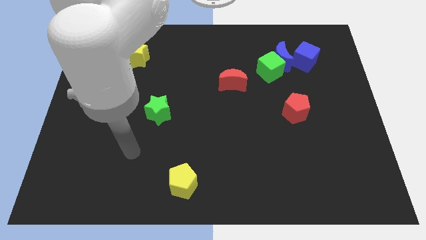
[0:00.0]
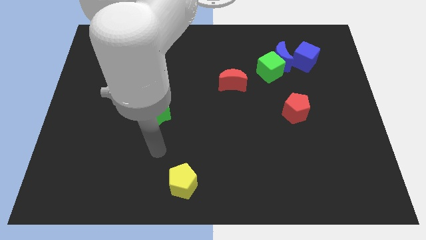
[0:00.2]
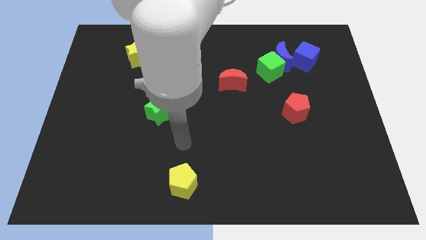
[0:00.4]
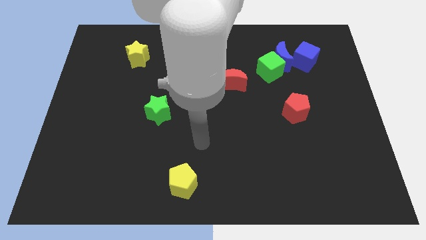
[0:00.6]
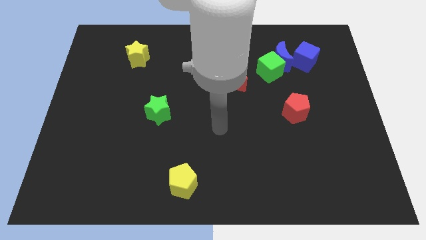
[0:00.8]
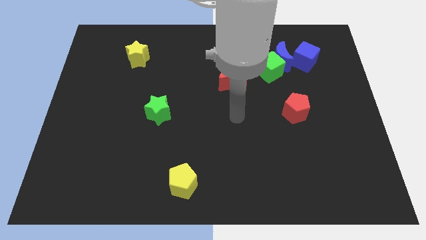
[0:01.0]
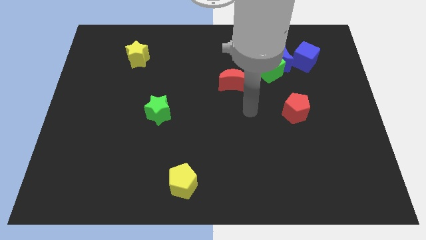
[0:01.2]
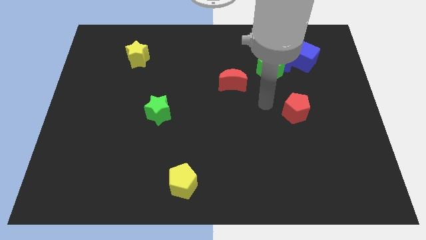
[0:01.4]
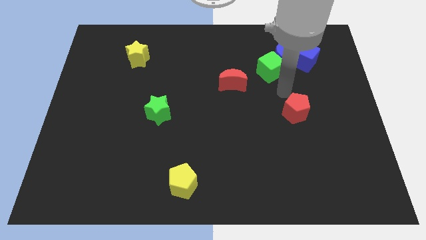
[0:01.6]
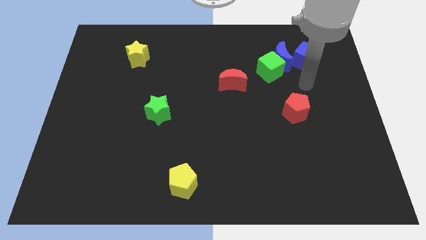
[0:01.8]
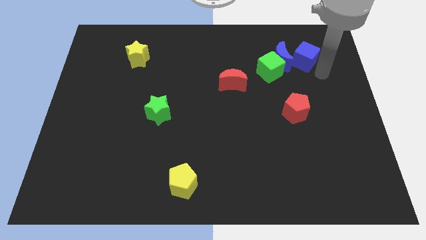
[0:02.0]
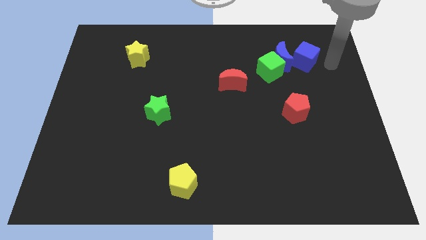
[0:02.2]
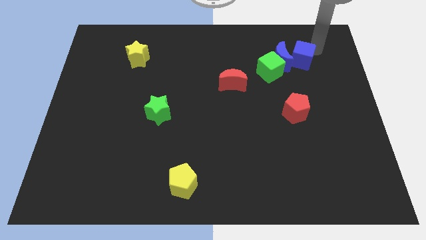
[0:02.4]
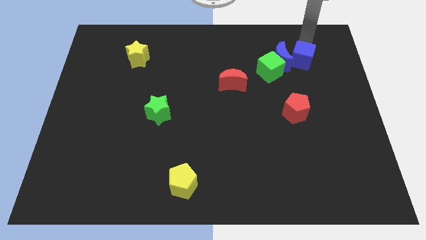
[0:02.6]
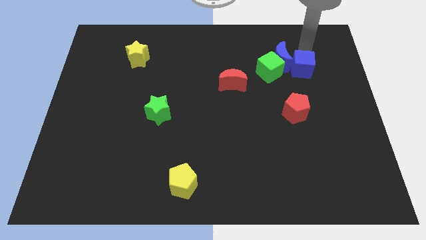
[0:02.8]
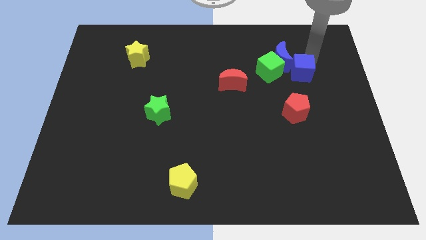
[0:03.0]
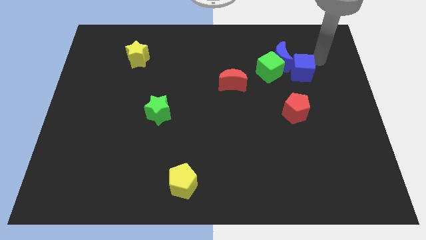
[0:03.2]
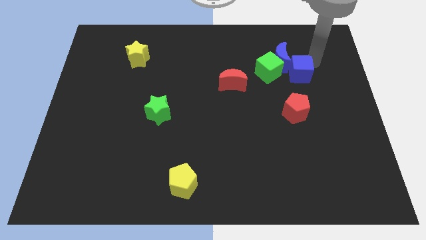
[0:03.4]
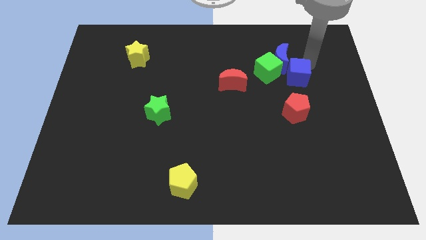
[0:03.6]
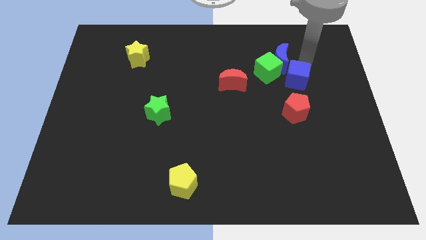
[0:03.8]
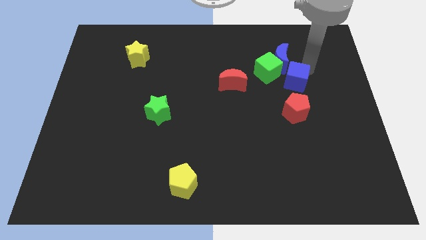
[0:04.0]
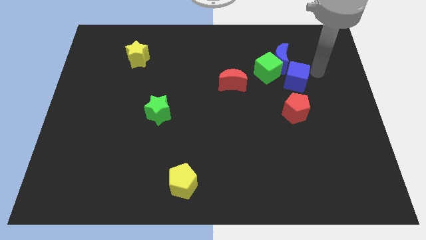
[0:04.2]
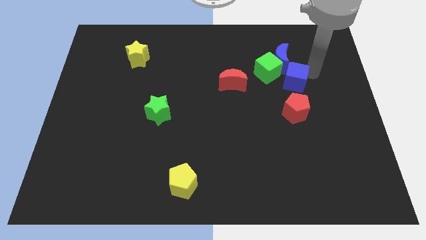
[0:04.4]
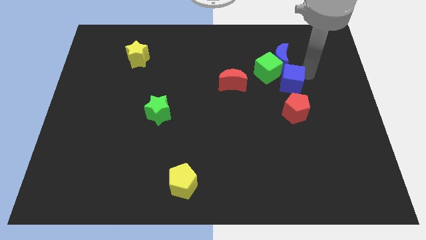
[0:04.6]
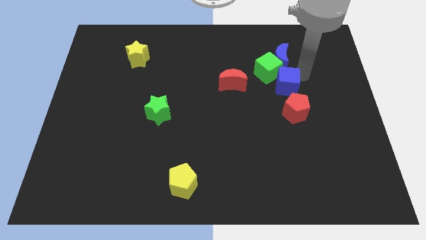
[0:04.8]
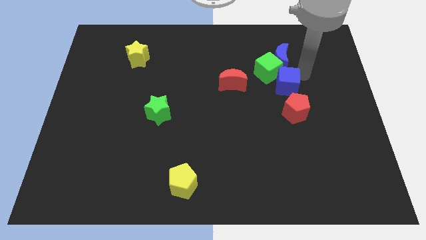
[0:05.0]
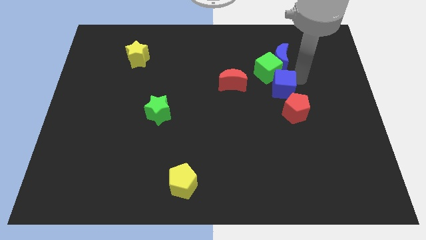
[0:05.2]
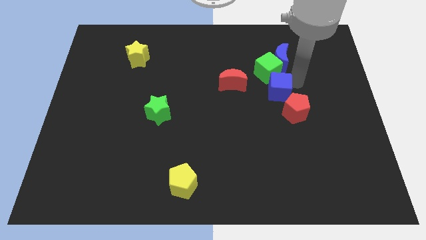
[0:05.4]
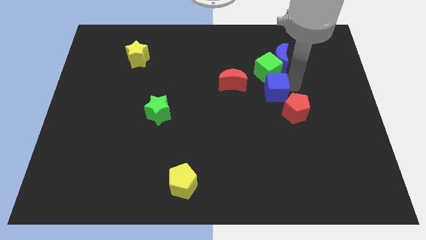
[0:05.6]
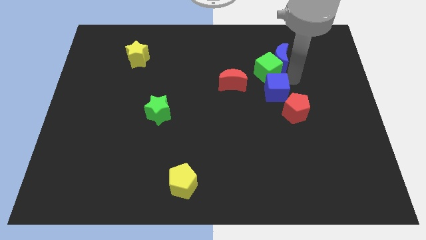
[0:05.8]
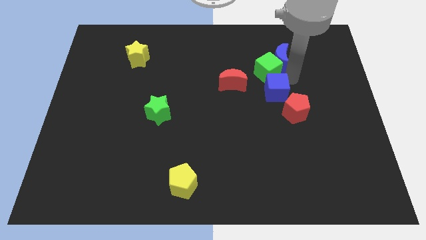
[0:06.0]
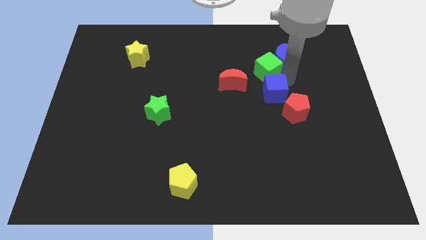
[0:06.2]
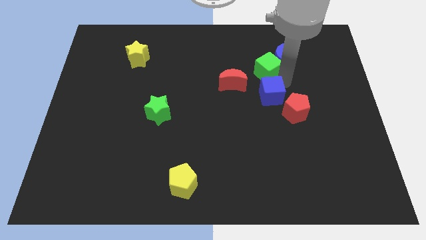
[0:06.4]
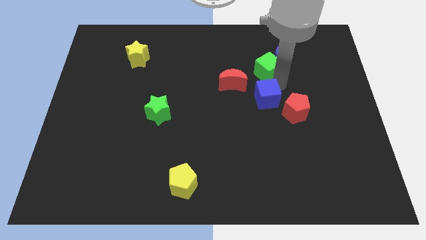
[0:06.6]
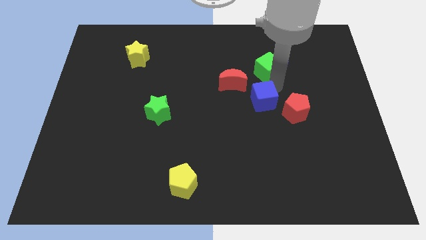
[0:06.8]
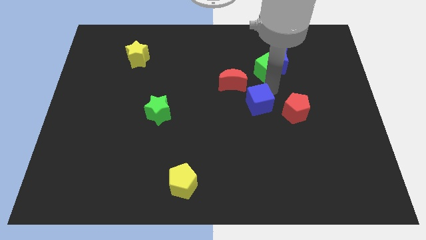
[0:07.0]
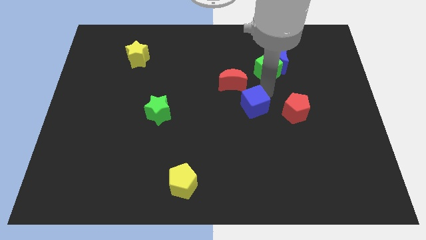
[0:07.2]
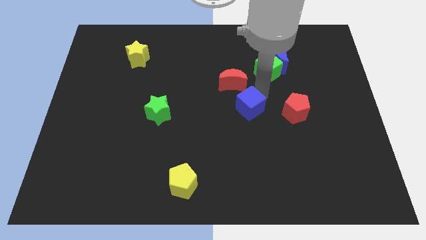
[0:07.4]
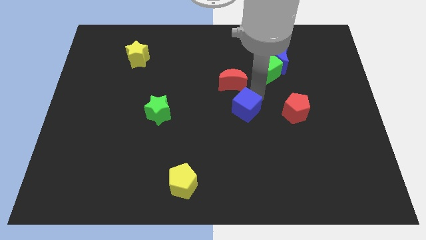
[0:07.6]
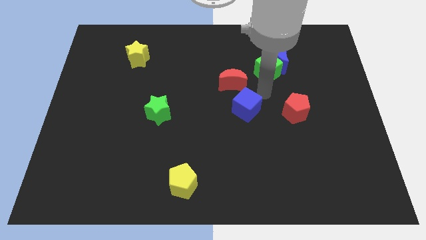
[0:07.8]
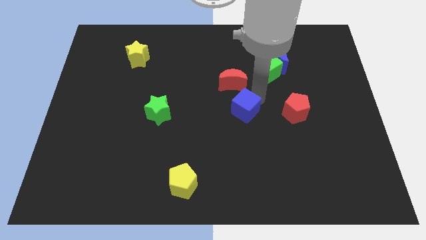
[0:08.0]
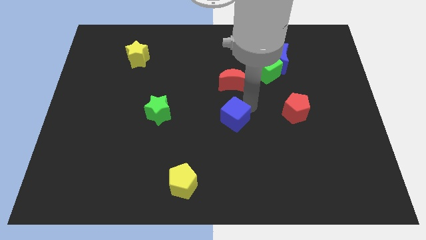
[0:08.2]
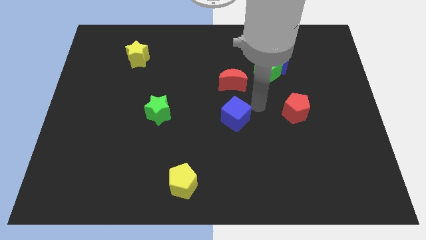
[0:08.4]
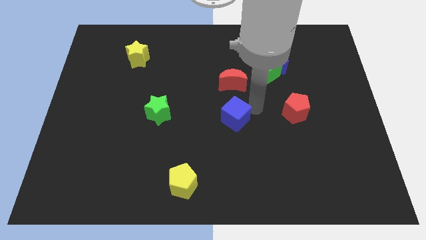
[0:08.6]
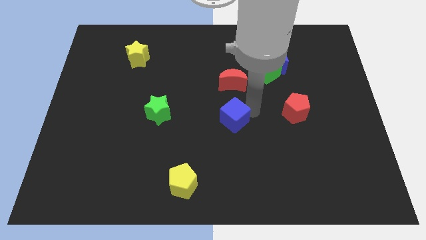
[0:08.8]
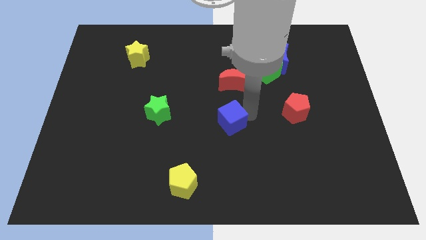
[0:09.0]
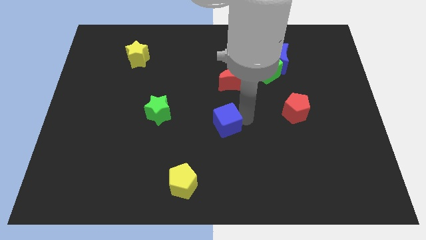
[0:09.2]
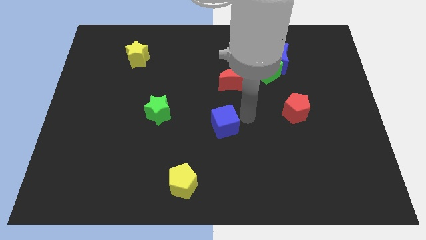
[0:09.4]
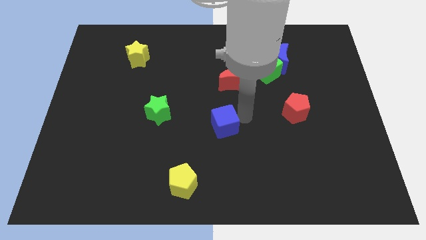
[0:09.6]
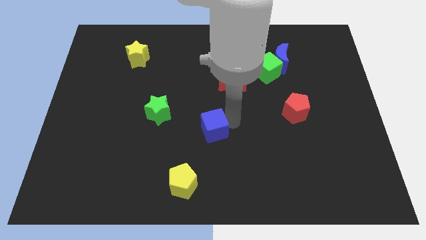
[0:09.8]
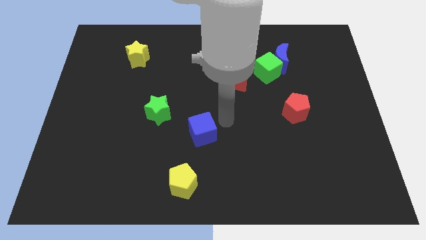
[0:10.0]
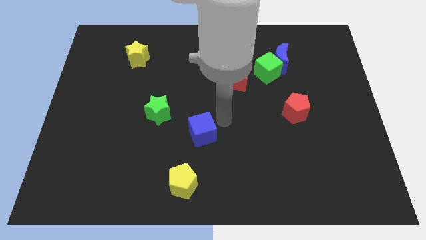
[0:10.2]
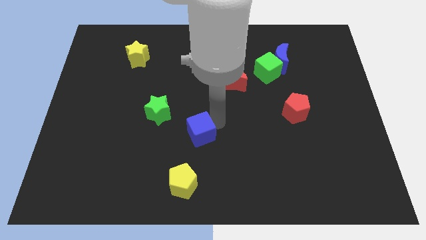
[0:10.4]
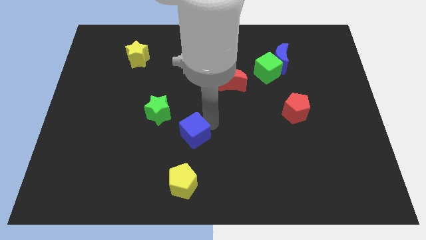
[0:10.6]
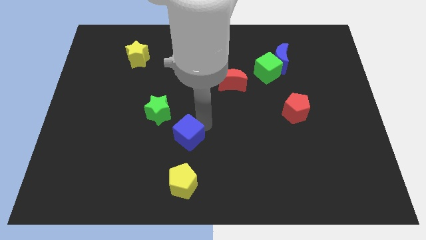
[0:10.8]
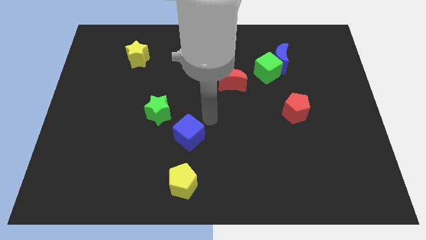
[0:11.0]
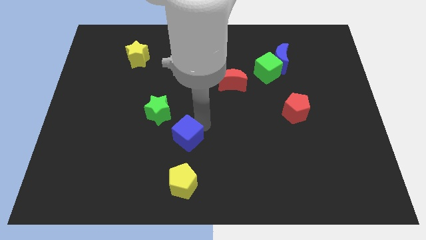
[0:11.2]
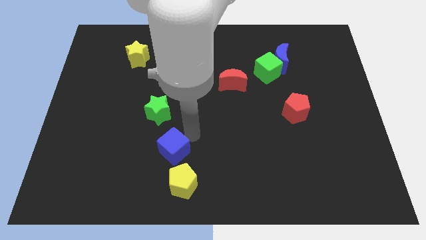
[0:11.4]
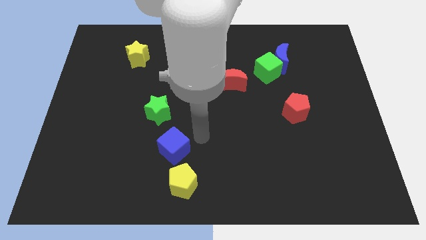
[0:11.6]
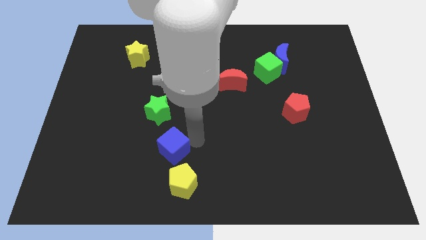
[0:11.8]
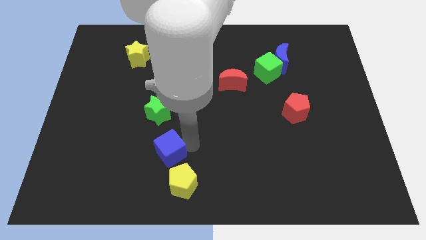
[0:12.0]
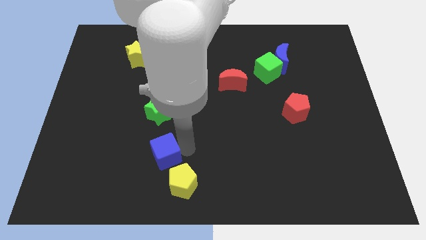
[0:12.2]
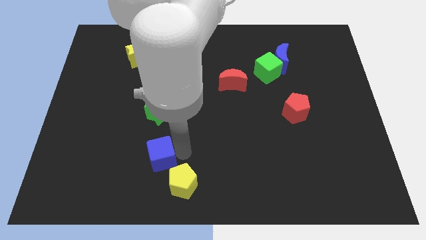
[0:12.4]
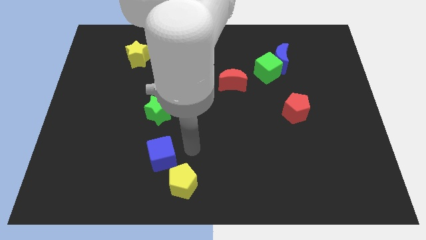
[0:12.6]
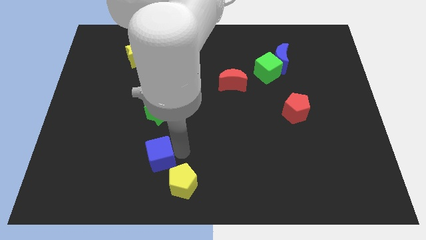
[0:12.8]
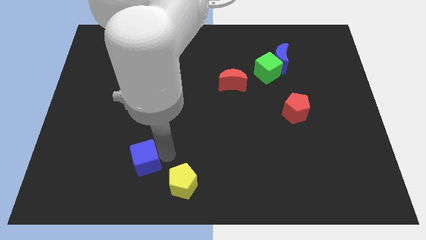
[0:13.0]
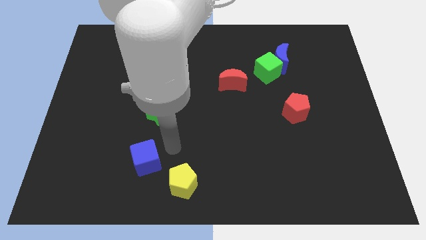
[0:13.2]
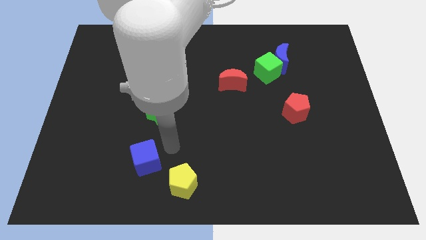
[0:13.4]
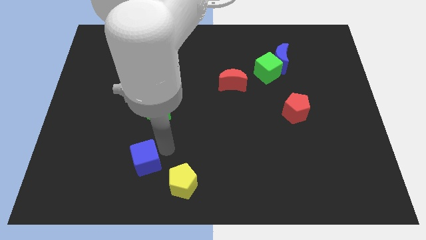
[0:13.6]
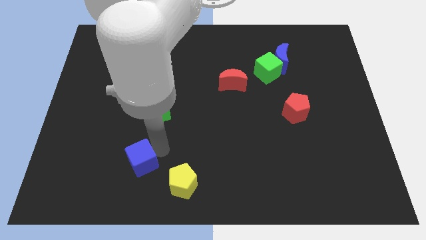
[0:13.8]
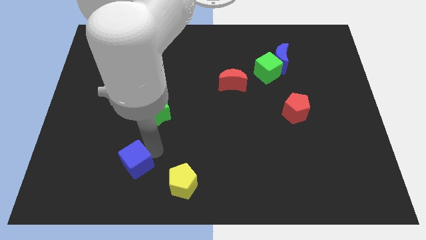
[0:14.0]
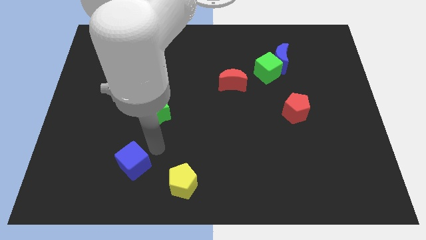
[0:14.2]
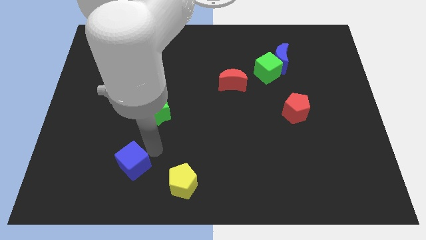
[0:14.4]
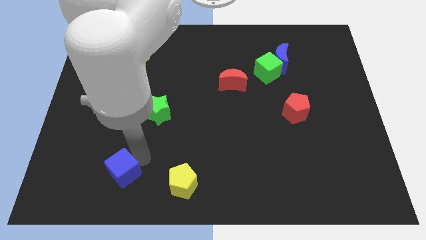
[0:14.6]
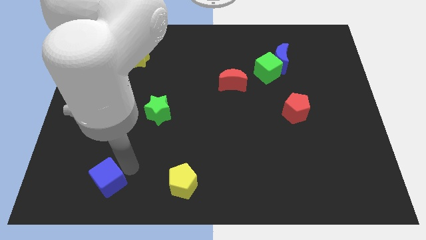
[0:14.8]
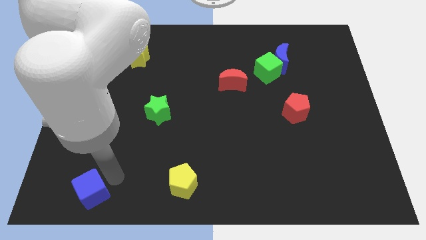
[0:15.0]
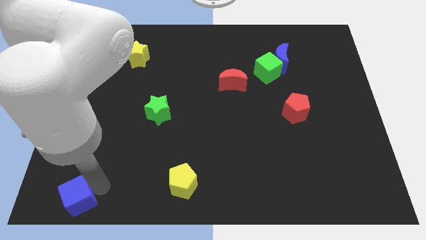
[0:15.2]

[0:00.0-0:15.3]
slide the blue cube to the bottom left of the board
